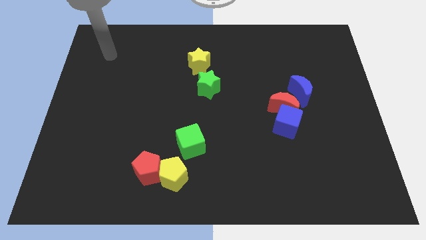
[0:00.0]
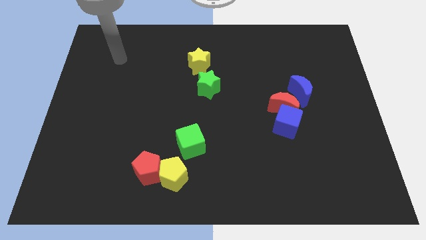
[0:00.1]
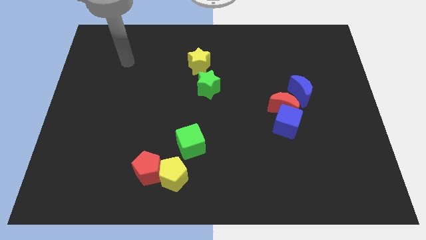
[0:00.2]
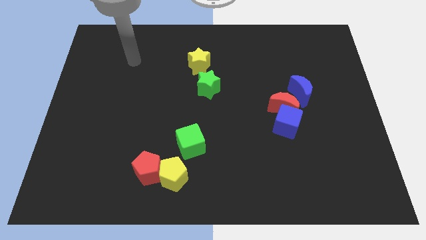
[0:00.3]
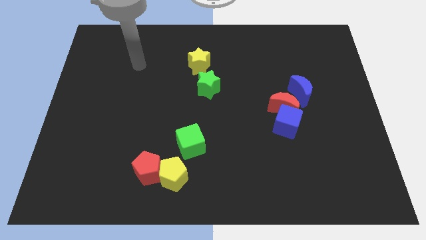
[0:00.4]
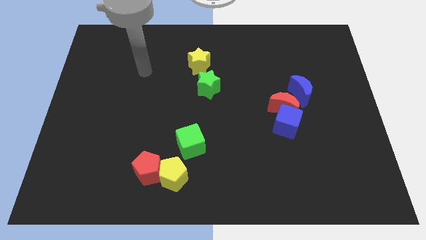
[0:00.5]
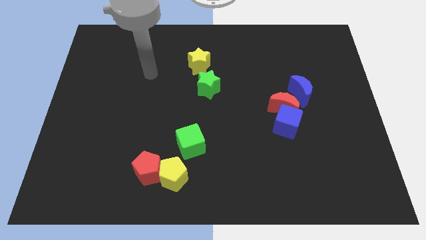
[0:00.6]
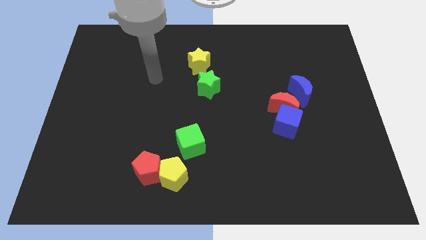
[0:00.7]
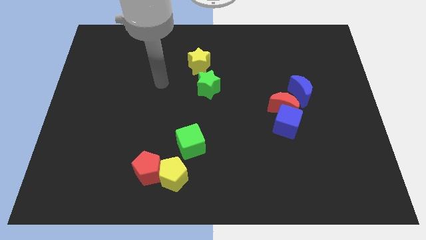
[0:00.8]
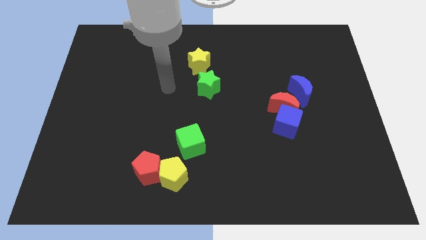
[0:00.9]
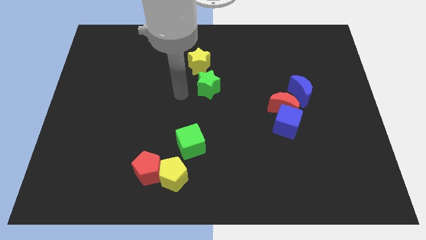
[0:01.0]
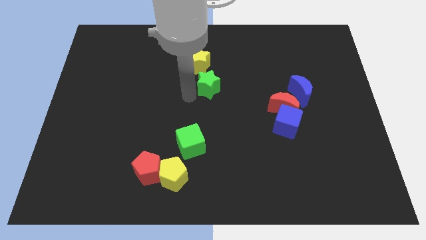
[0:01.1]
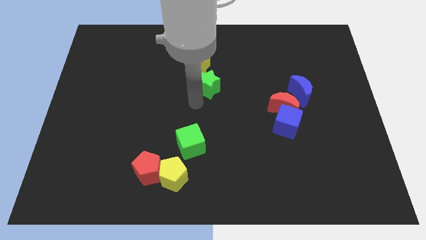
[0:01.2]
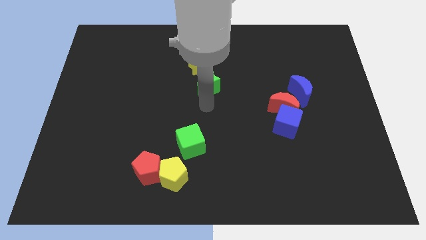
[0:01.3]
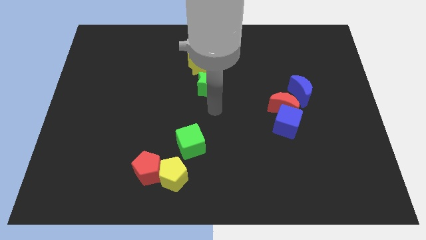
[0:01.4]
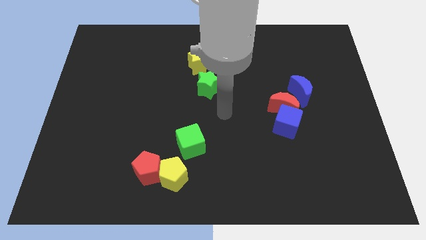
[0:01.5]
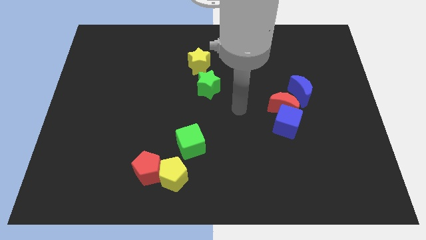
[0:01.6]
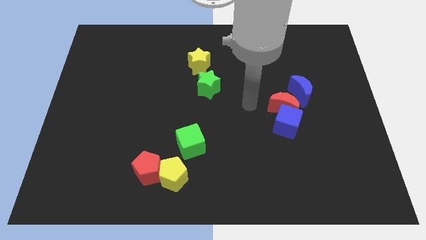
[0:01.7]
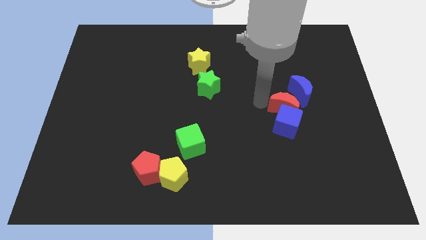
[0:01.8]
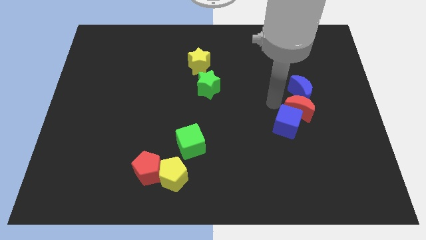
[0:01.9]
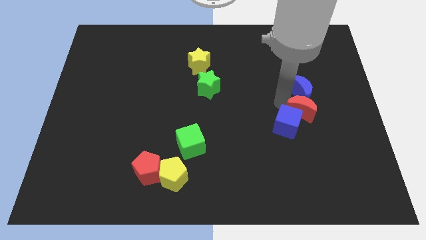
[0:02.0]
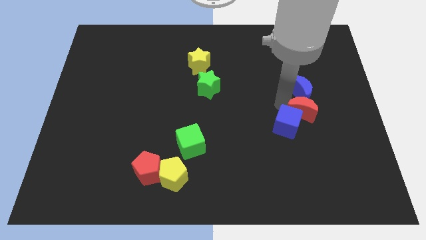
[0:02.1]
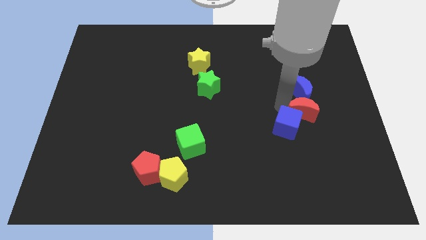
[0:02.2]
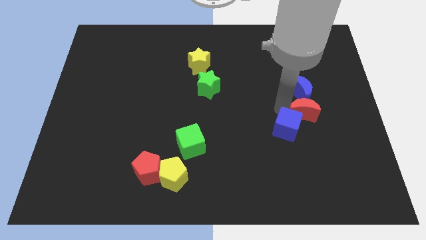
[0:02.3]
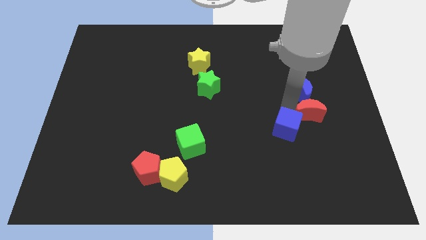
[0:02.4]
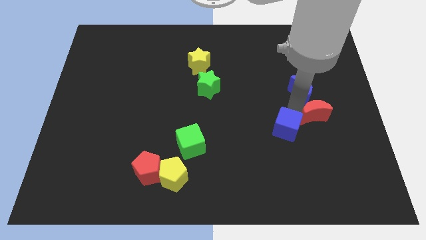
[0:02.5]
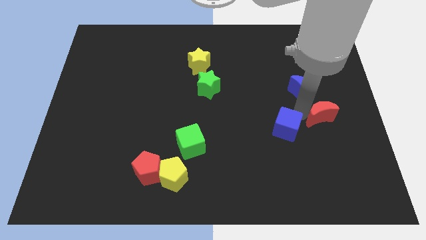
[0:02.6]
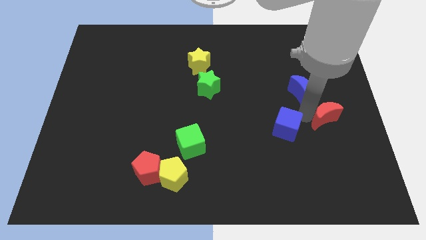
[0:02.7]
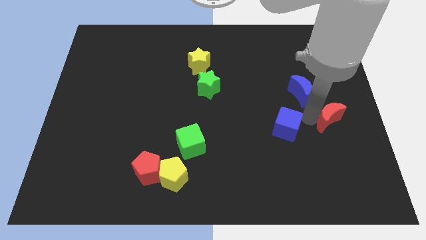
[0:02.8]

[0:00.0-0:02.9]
move the blue cube away from the red moon

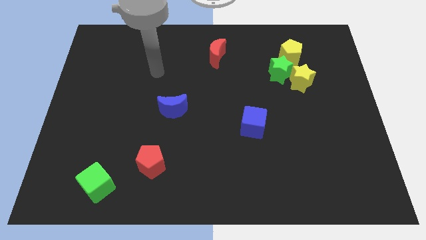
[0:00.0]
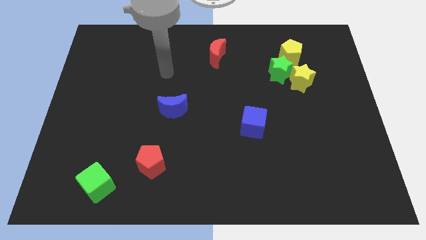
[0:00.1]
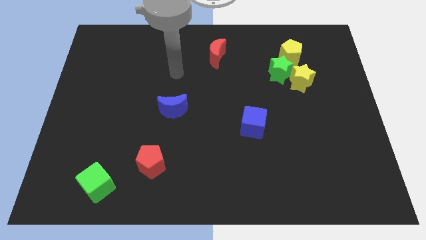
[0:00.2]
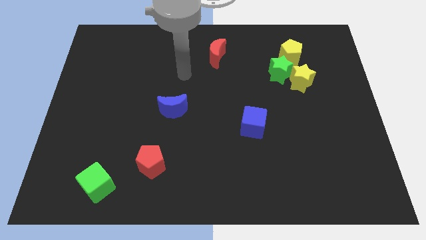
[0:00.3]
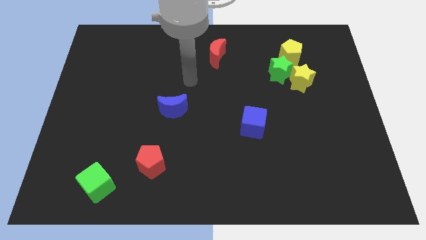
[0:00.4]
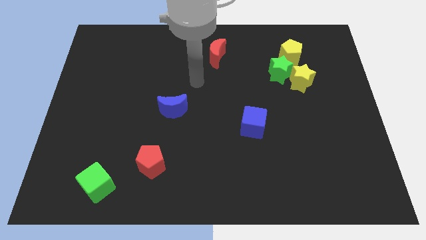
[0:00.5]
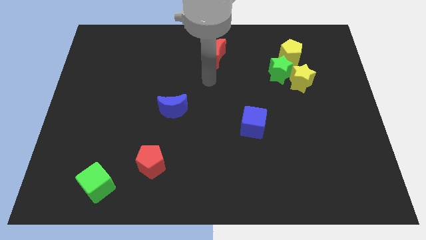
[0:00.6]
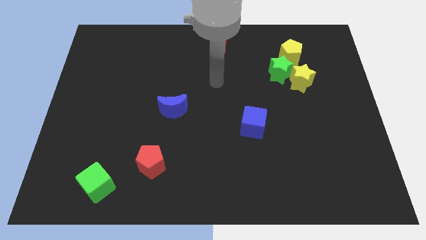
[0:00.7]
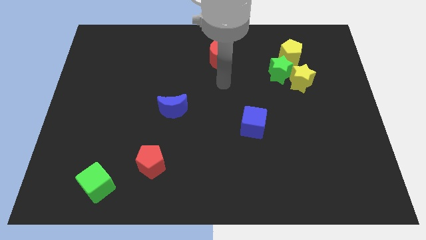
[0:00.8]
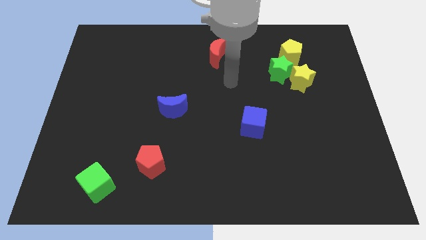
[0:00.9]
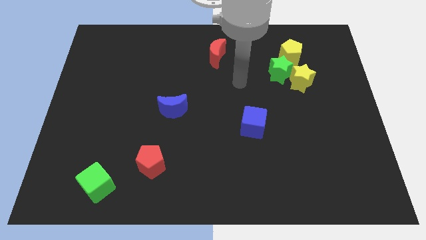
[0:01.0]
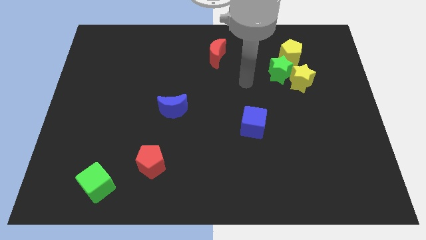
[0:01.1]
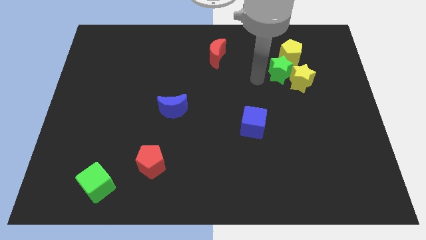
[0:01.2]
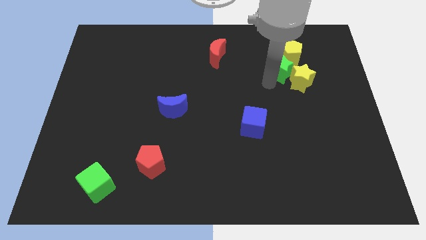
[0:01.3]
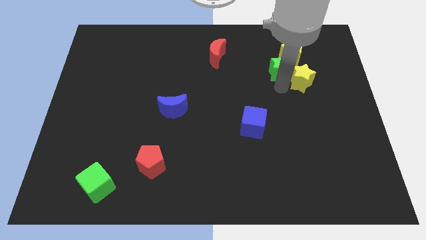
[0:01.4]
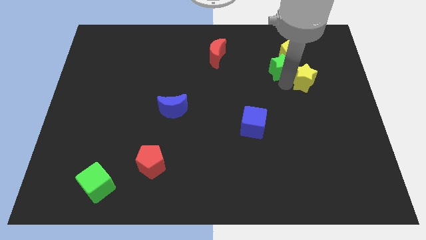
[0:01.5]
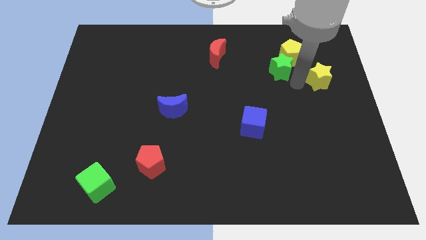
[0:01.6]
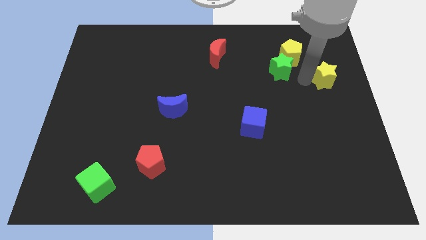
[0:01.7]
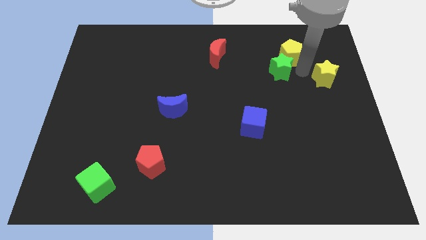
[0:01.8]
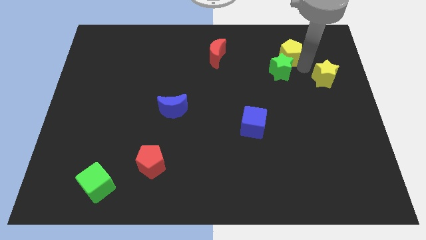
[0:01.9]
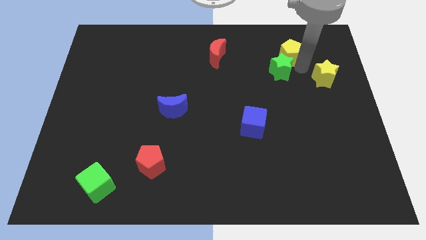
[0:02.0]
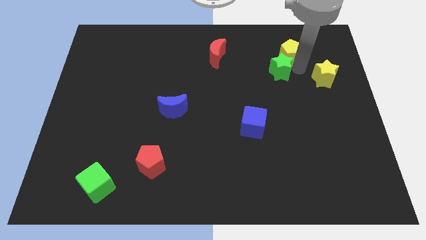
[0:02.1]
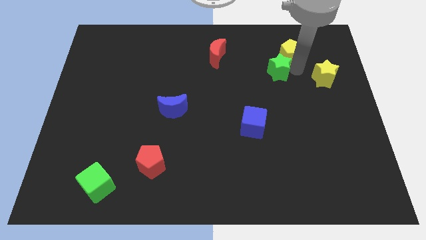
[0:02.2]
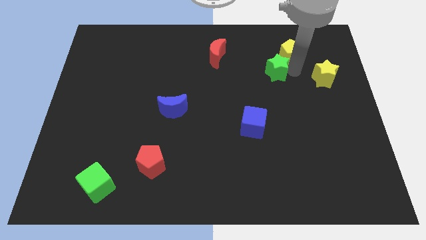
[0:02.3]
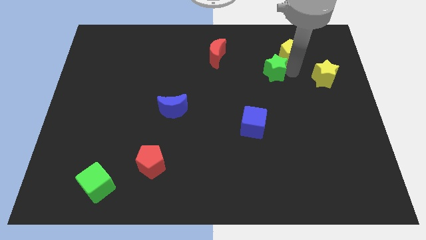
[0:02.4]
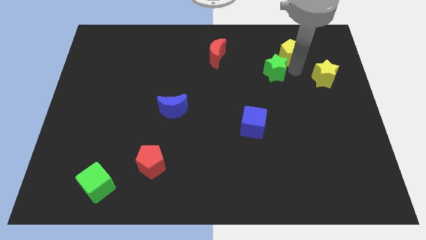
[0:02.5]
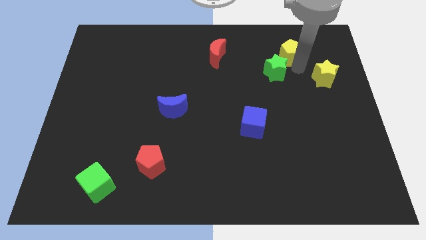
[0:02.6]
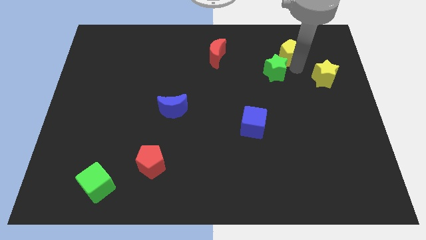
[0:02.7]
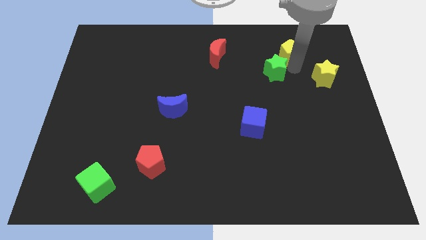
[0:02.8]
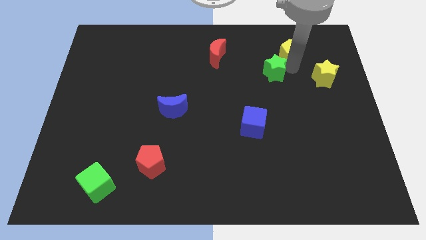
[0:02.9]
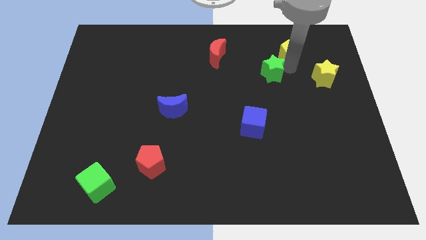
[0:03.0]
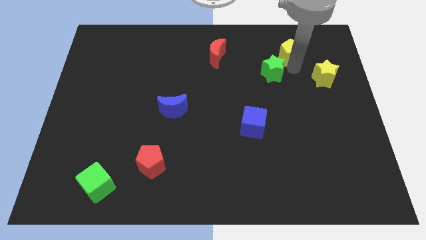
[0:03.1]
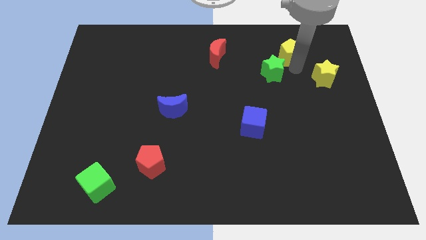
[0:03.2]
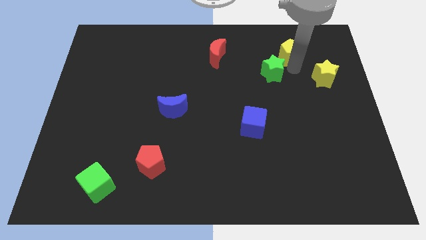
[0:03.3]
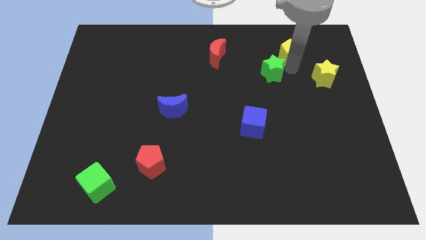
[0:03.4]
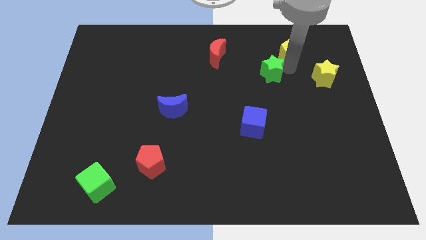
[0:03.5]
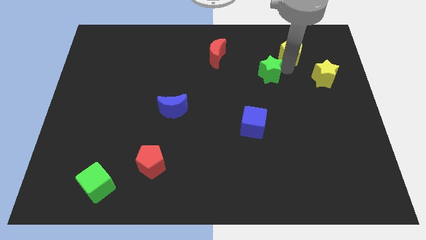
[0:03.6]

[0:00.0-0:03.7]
move the green star away from the yellow star and yellow pentagon

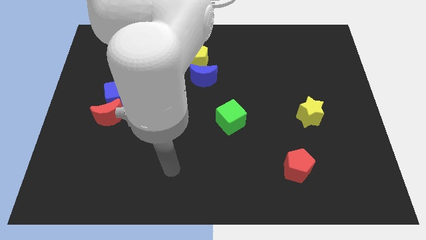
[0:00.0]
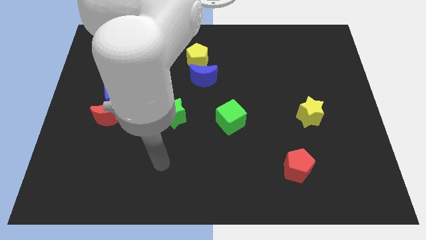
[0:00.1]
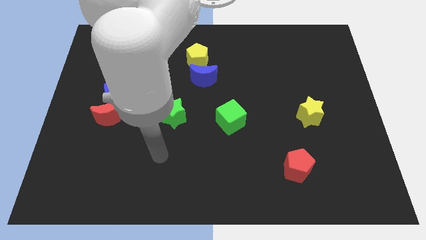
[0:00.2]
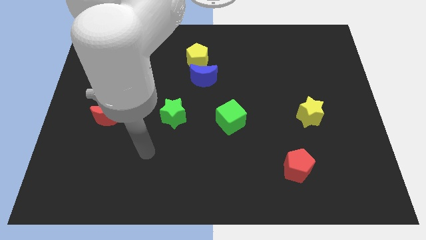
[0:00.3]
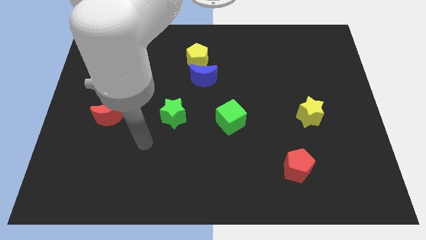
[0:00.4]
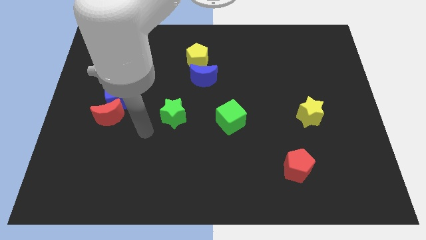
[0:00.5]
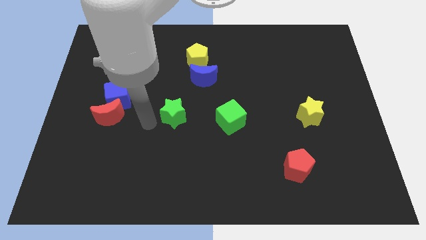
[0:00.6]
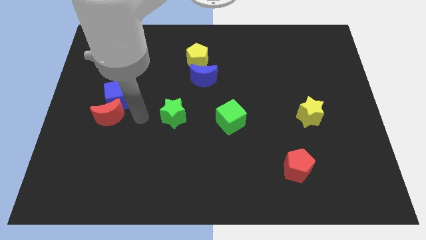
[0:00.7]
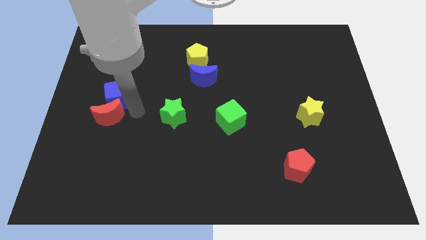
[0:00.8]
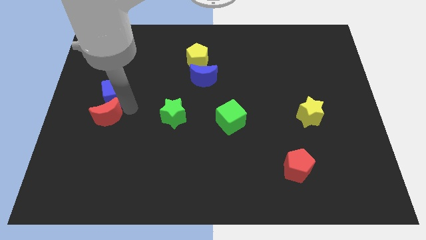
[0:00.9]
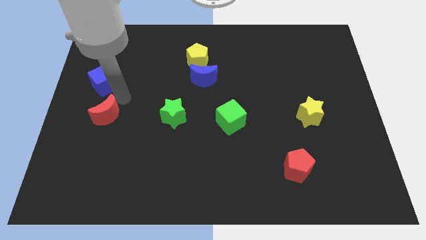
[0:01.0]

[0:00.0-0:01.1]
separate the red moon from the blue cube

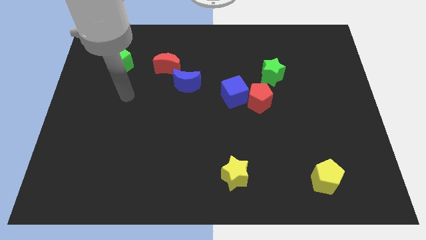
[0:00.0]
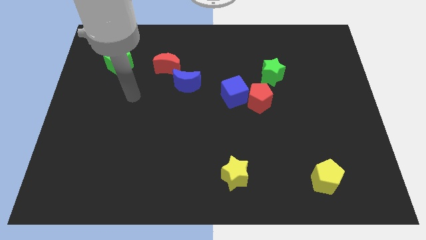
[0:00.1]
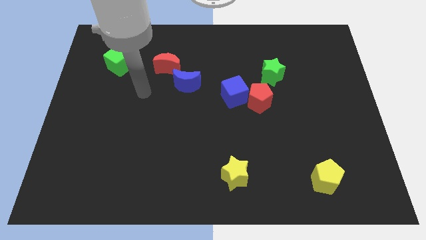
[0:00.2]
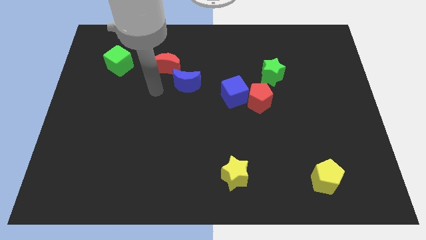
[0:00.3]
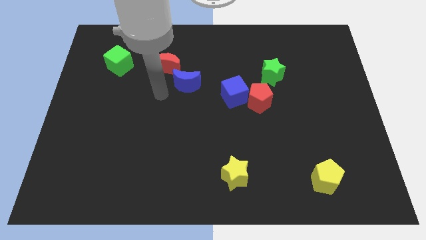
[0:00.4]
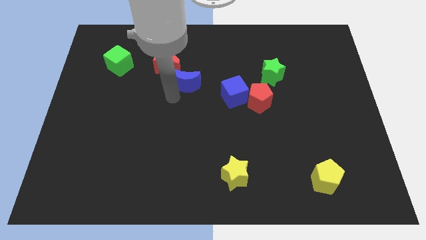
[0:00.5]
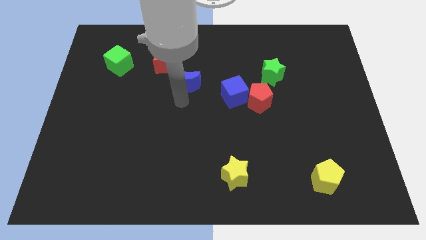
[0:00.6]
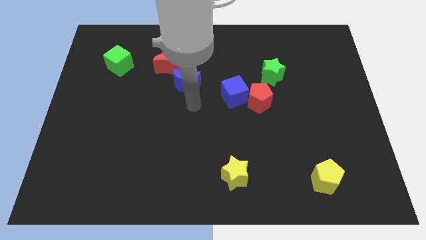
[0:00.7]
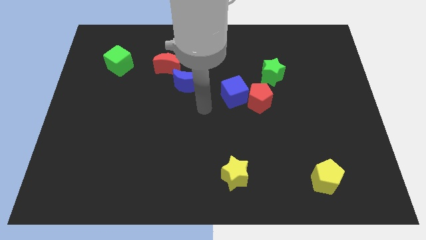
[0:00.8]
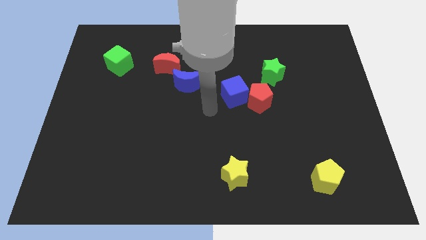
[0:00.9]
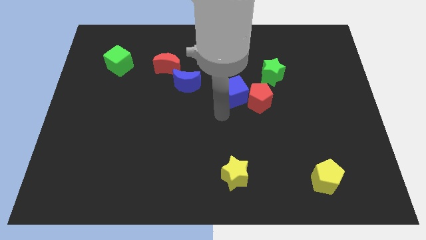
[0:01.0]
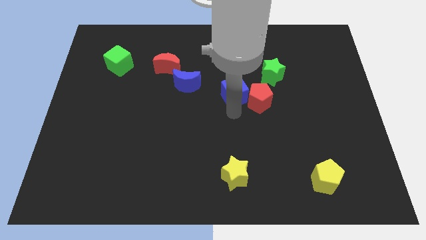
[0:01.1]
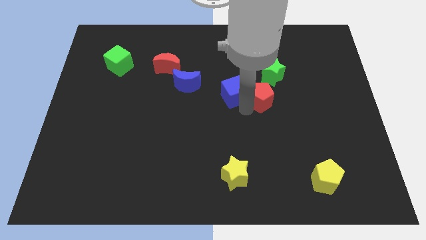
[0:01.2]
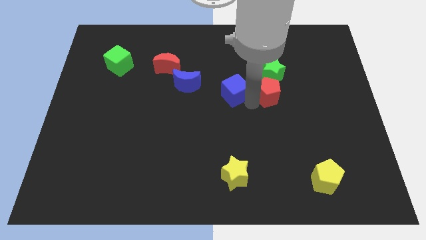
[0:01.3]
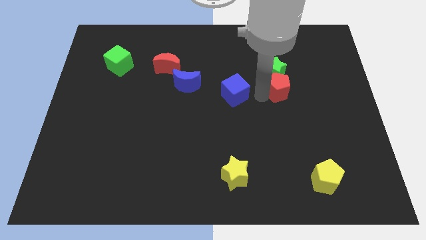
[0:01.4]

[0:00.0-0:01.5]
separate the blue cube from the red pentagon

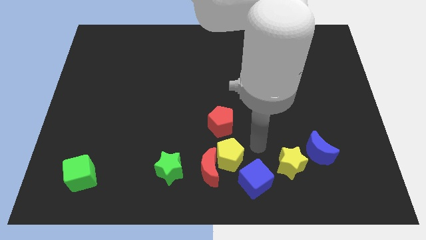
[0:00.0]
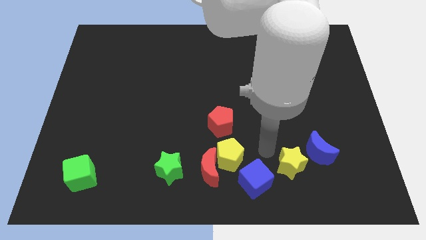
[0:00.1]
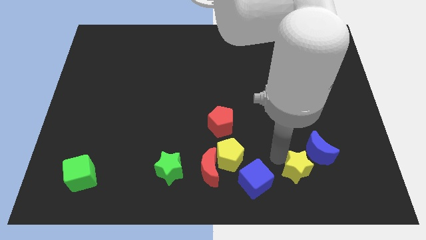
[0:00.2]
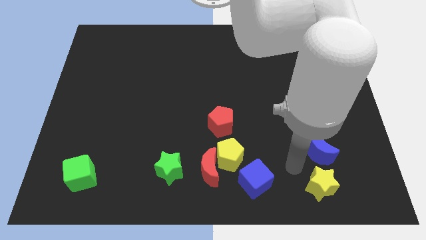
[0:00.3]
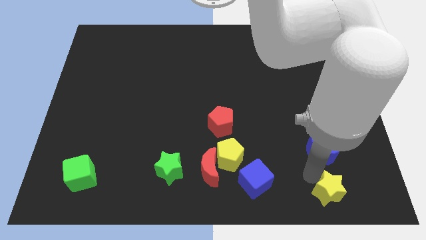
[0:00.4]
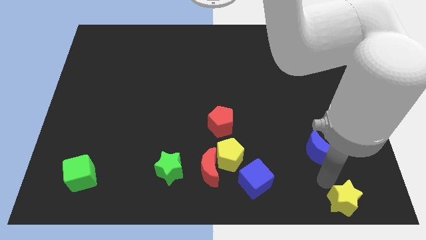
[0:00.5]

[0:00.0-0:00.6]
pull the blue moon apart from the yellow star
